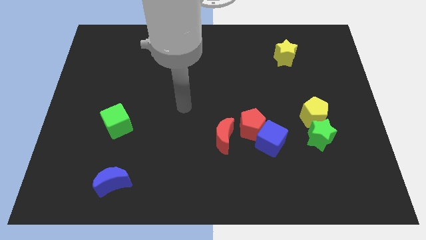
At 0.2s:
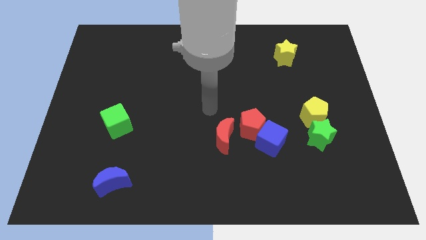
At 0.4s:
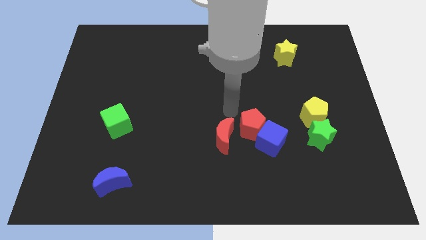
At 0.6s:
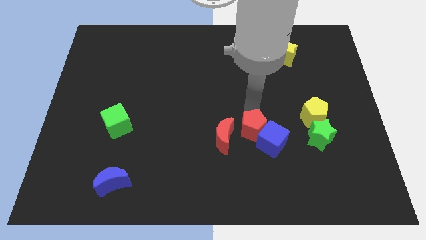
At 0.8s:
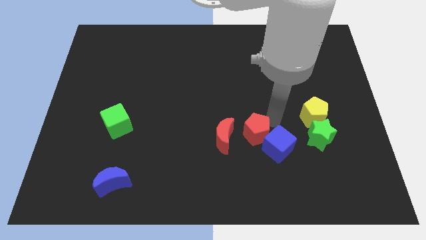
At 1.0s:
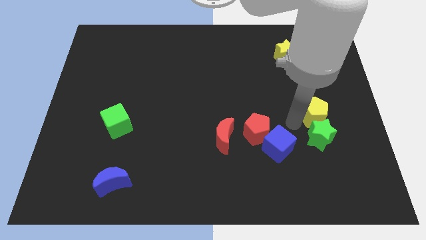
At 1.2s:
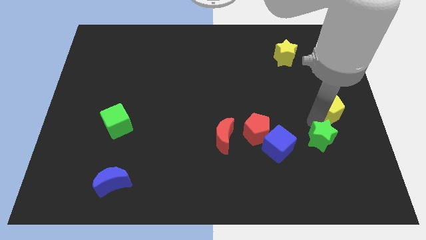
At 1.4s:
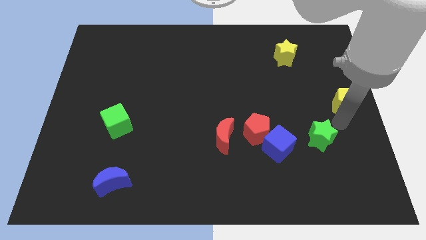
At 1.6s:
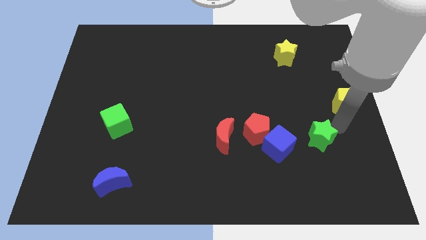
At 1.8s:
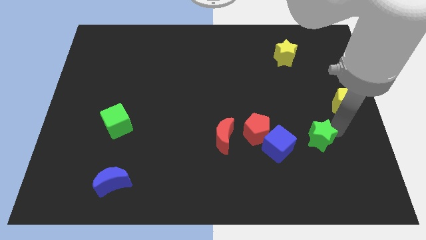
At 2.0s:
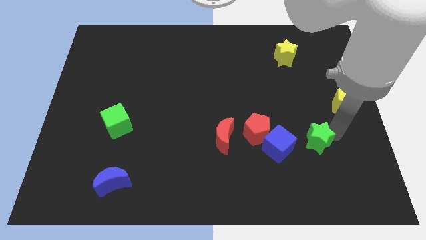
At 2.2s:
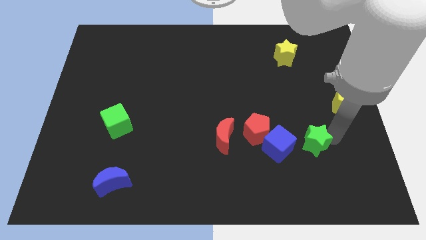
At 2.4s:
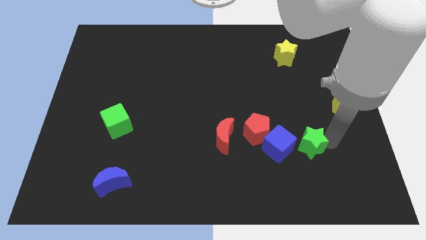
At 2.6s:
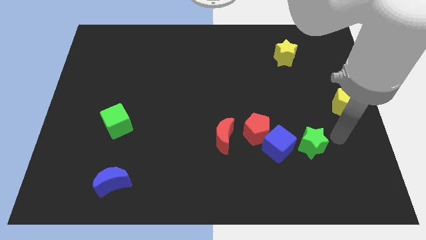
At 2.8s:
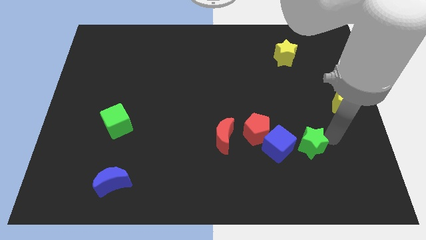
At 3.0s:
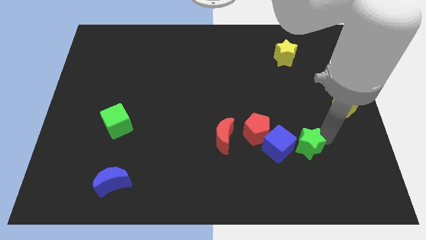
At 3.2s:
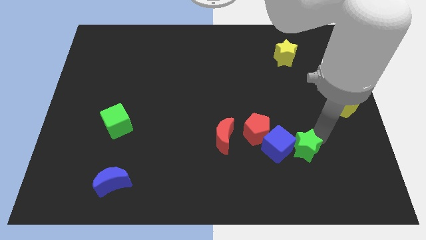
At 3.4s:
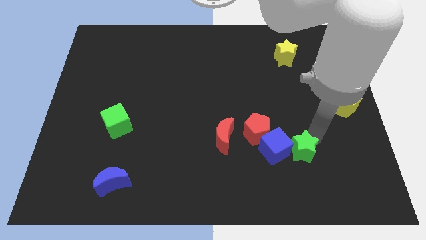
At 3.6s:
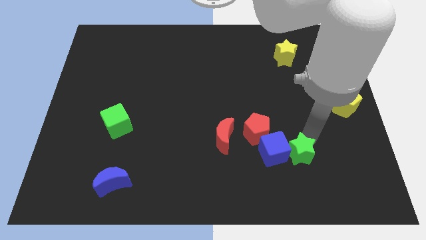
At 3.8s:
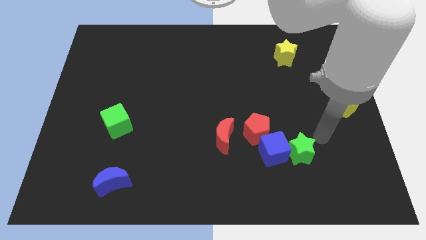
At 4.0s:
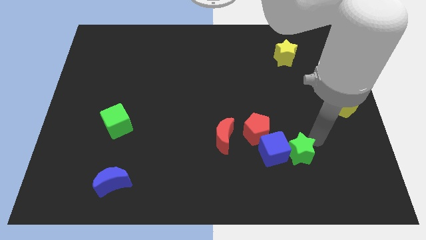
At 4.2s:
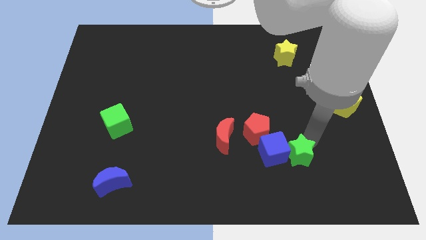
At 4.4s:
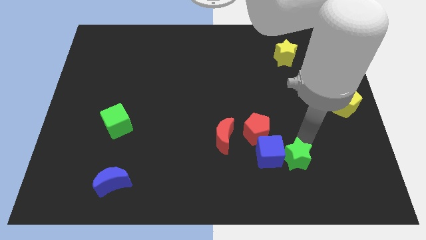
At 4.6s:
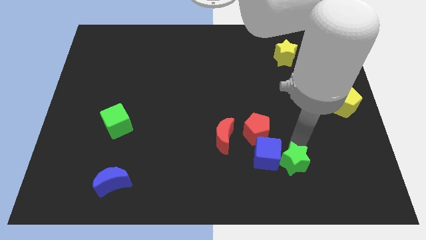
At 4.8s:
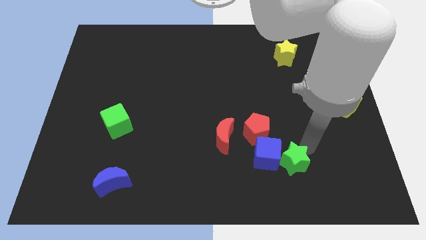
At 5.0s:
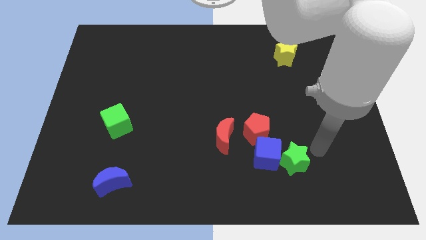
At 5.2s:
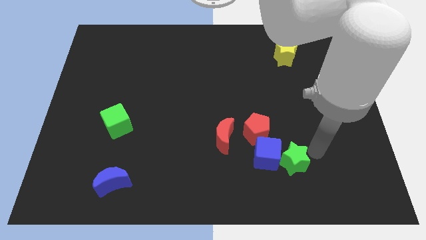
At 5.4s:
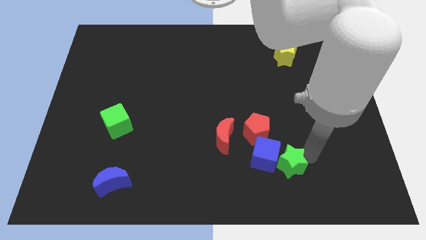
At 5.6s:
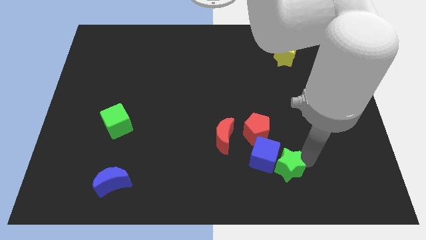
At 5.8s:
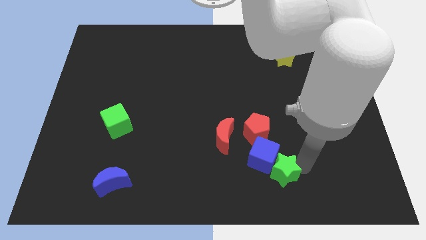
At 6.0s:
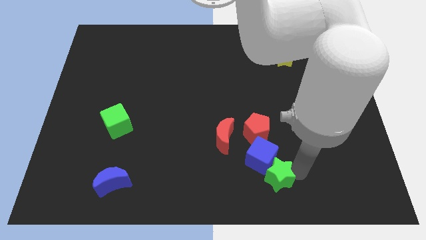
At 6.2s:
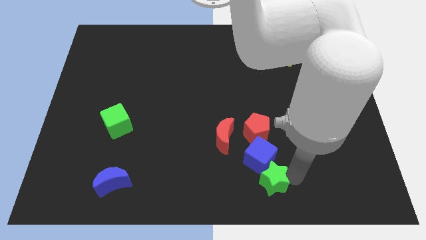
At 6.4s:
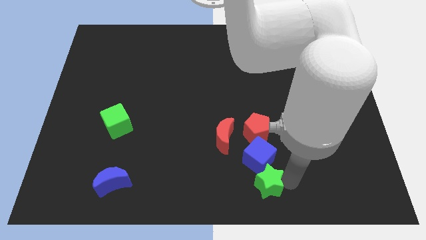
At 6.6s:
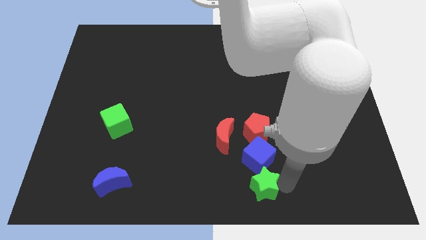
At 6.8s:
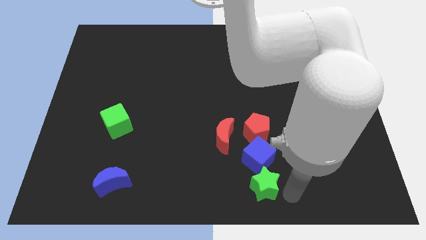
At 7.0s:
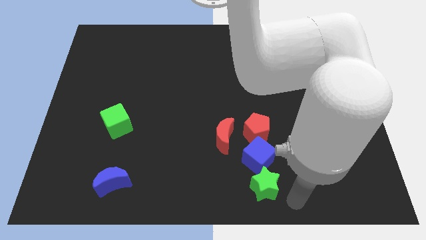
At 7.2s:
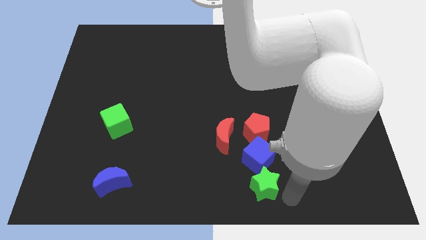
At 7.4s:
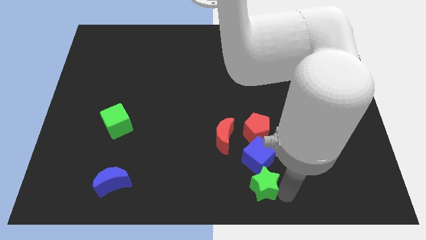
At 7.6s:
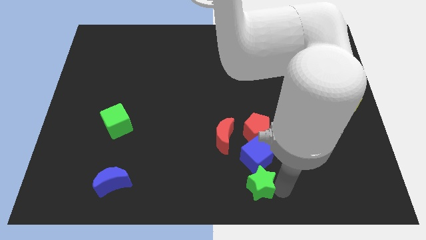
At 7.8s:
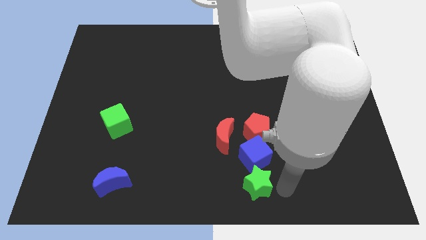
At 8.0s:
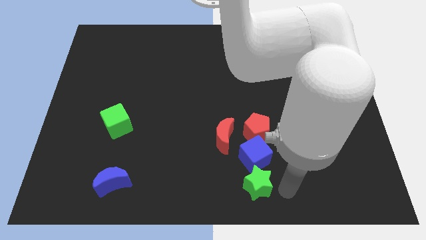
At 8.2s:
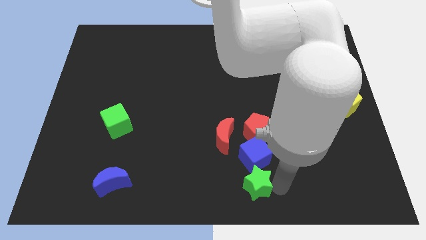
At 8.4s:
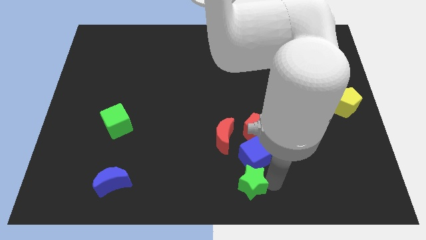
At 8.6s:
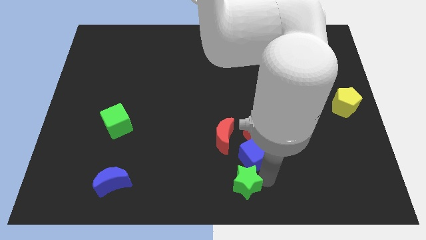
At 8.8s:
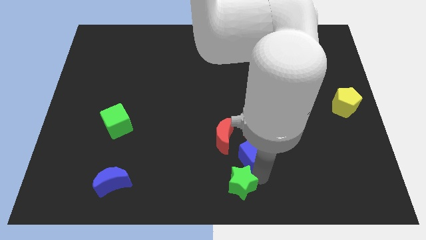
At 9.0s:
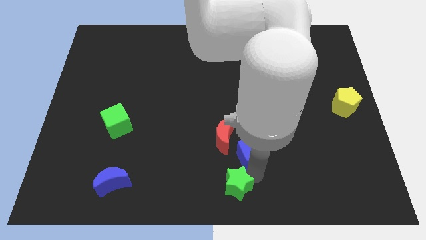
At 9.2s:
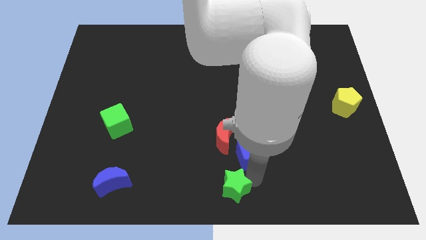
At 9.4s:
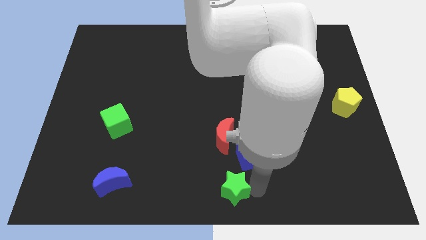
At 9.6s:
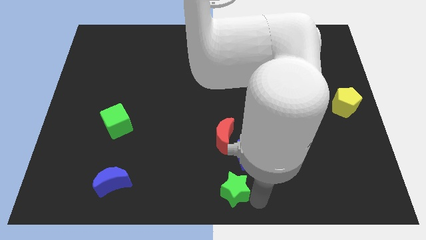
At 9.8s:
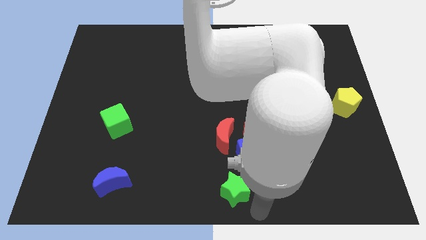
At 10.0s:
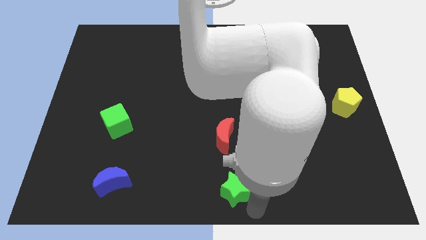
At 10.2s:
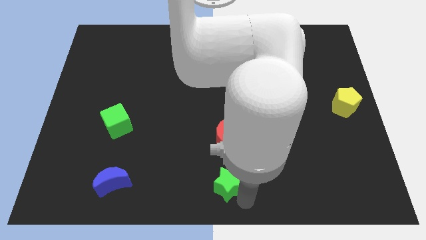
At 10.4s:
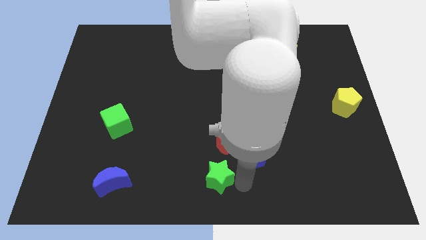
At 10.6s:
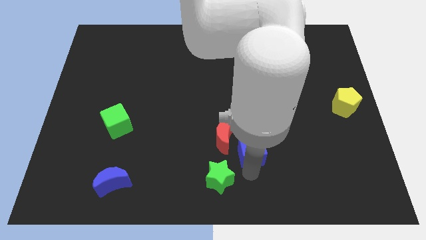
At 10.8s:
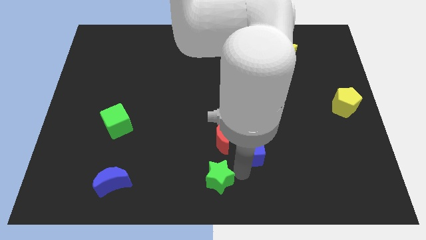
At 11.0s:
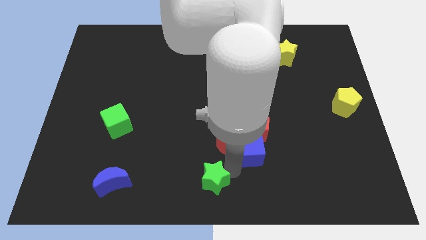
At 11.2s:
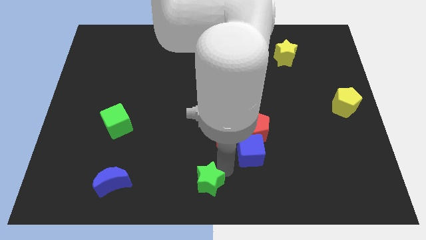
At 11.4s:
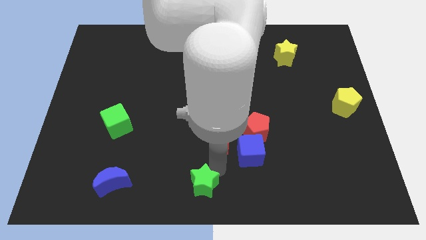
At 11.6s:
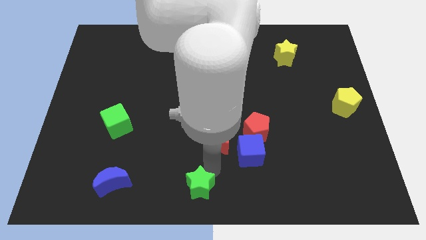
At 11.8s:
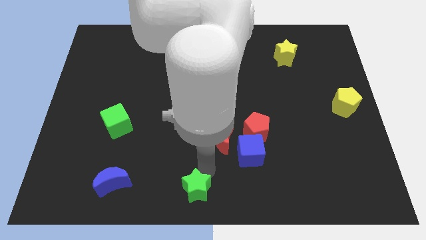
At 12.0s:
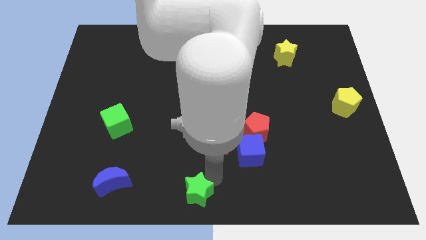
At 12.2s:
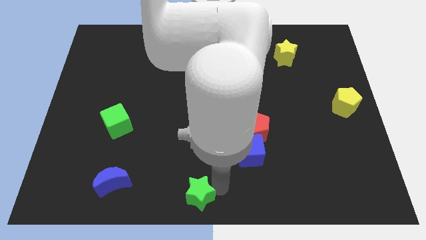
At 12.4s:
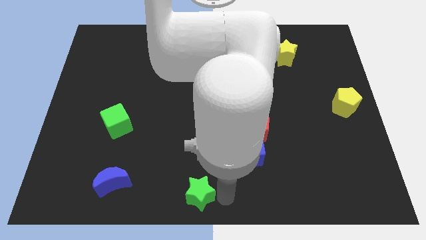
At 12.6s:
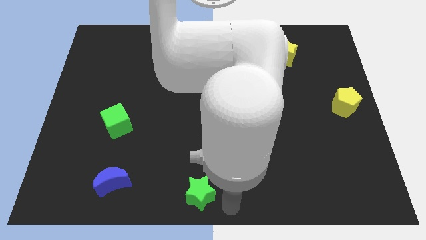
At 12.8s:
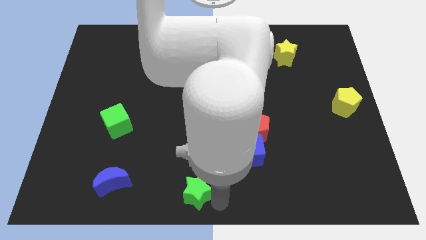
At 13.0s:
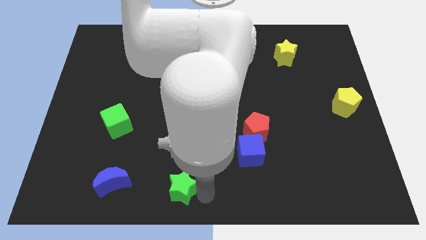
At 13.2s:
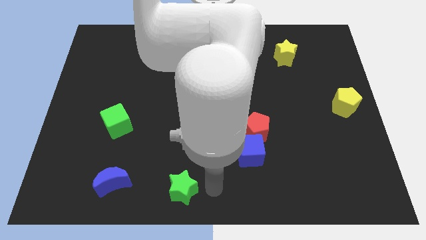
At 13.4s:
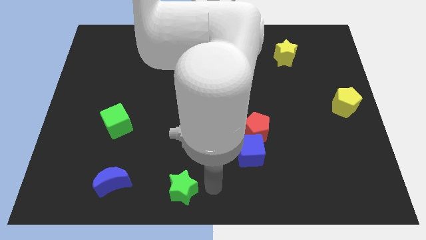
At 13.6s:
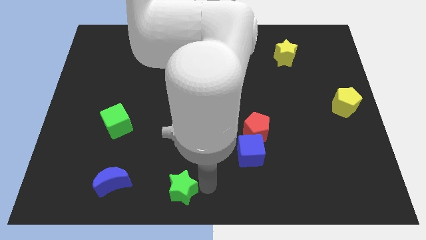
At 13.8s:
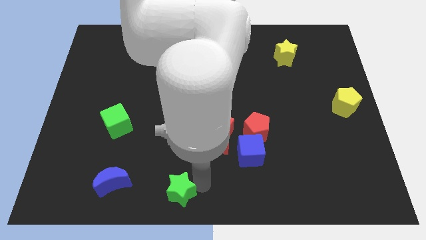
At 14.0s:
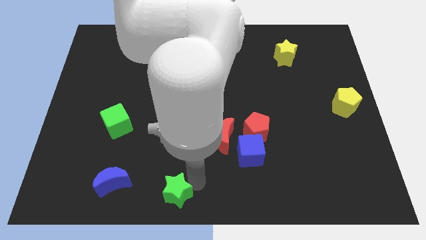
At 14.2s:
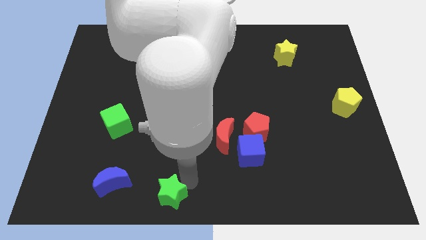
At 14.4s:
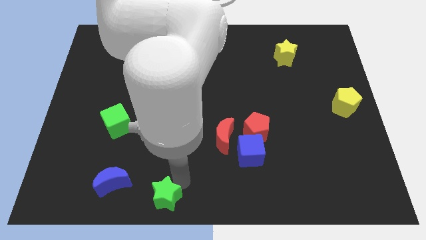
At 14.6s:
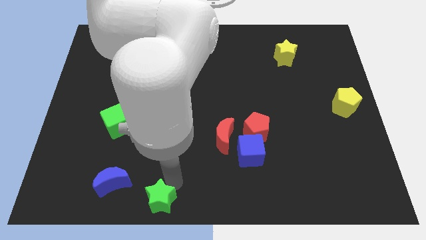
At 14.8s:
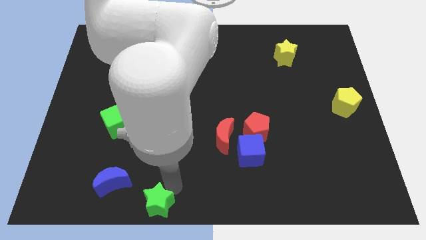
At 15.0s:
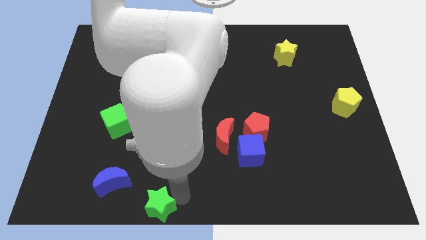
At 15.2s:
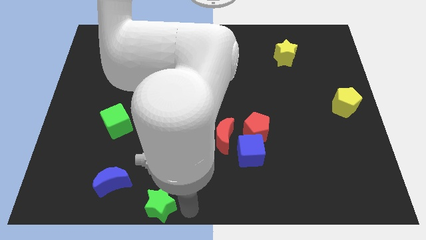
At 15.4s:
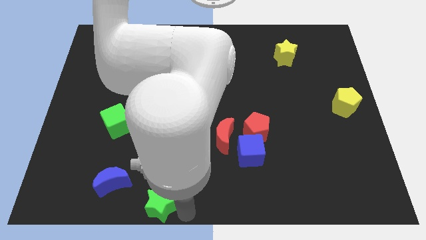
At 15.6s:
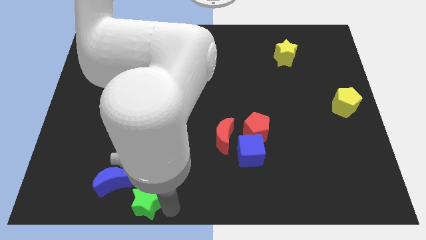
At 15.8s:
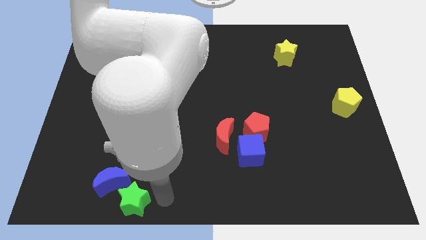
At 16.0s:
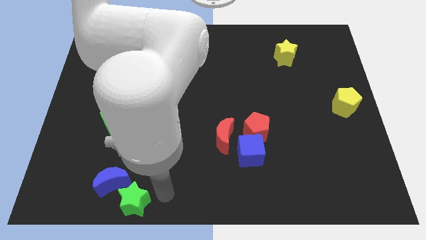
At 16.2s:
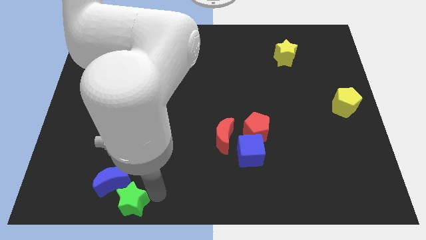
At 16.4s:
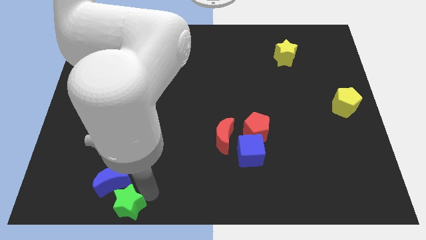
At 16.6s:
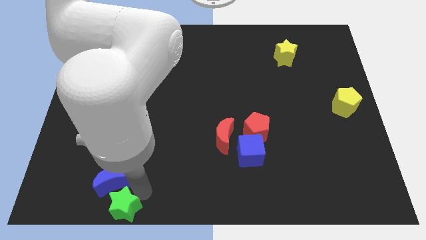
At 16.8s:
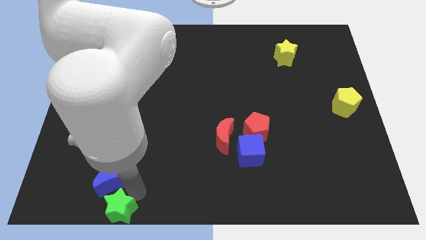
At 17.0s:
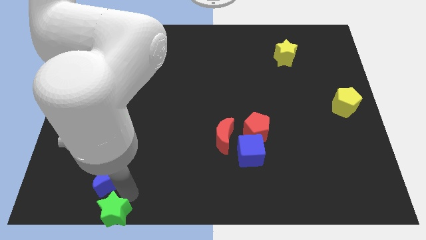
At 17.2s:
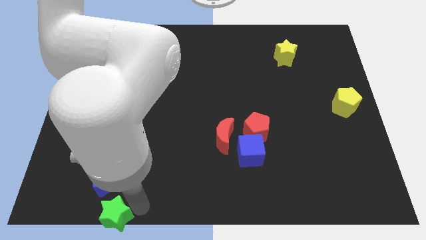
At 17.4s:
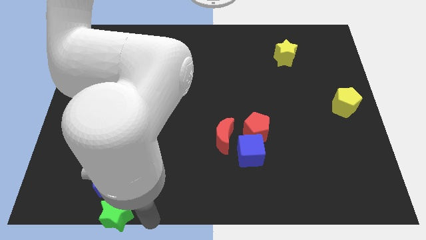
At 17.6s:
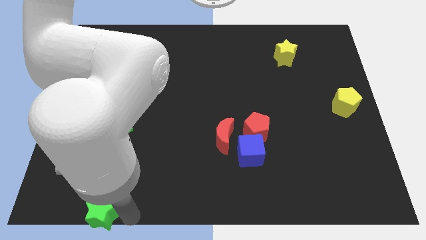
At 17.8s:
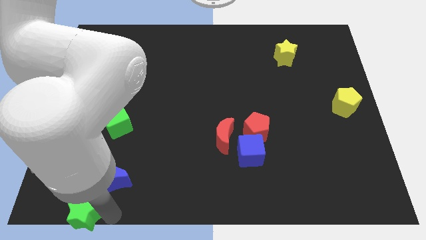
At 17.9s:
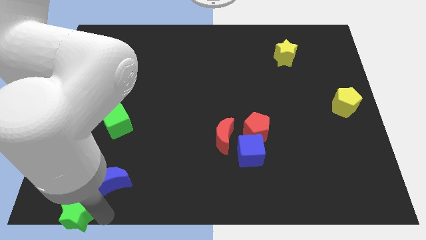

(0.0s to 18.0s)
slide the green star to the bottom left of the board
